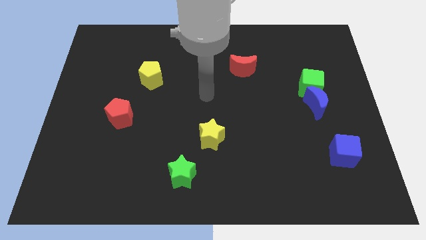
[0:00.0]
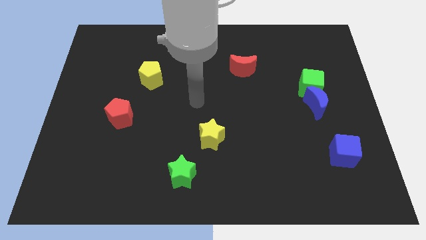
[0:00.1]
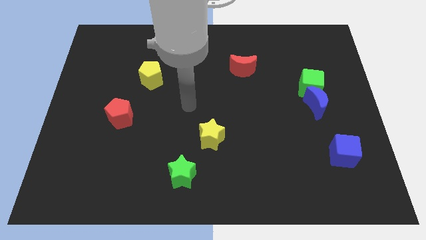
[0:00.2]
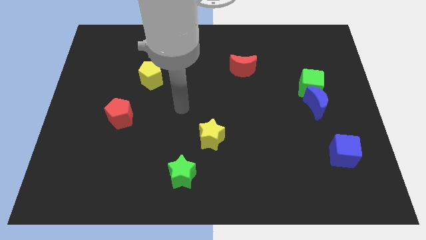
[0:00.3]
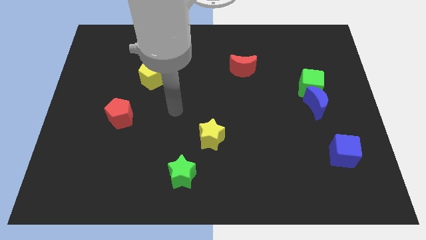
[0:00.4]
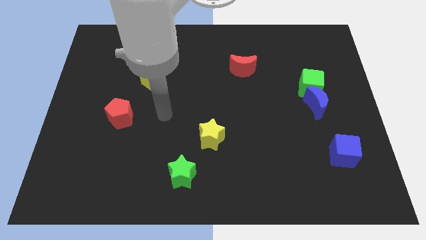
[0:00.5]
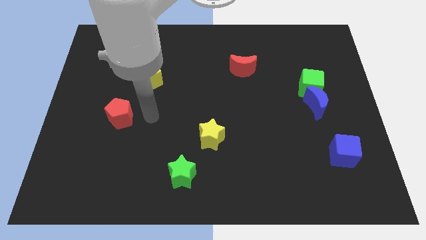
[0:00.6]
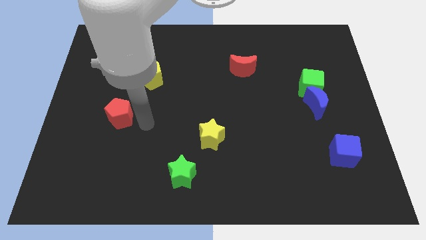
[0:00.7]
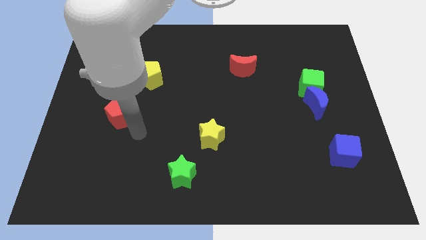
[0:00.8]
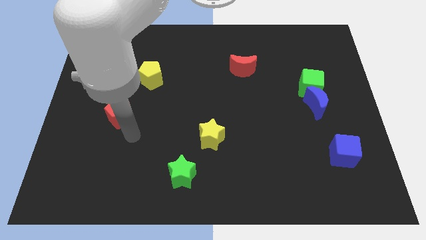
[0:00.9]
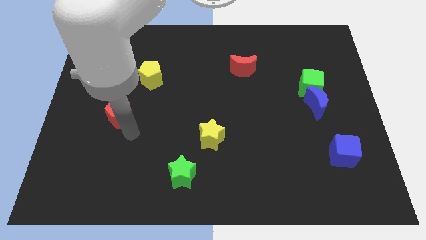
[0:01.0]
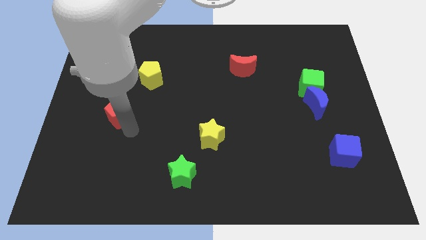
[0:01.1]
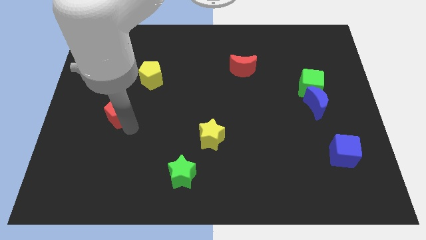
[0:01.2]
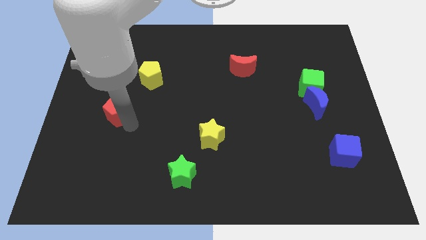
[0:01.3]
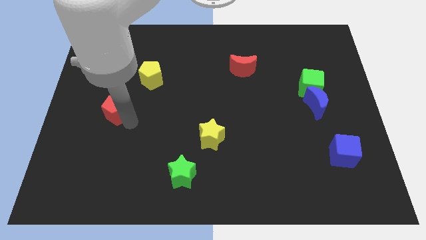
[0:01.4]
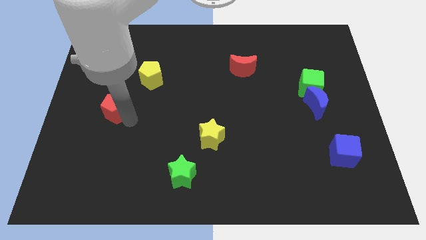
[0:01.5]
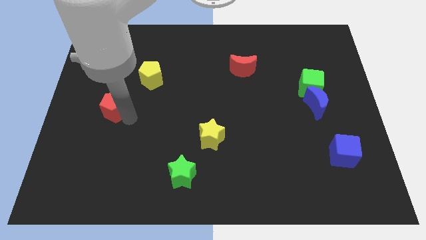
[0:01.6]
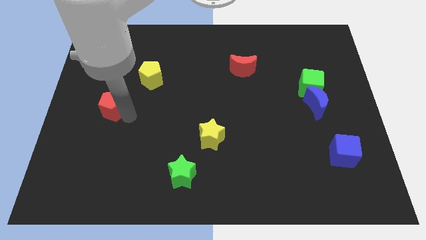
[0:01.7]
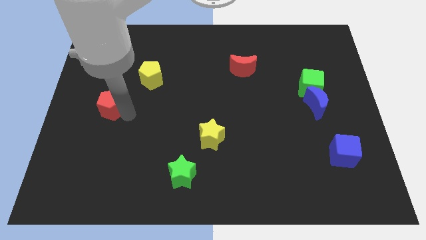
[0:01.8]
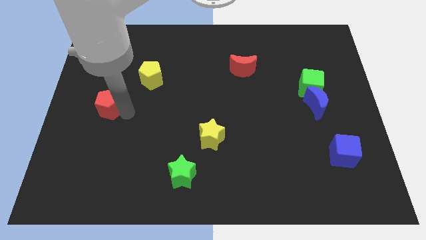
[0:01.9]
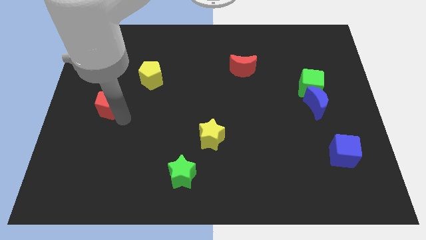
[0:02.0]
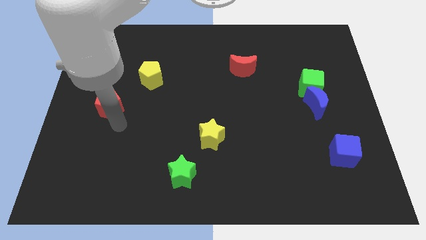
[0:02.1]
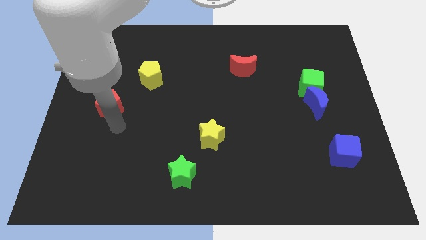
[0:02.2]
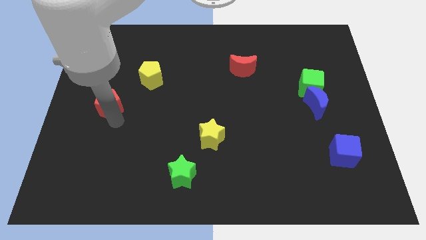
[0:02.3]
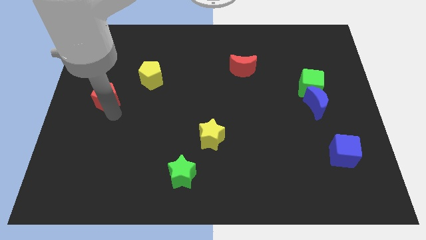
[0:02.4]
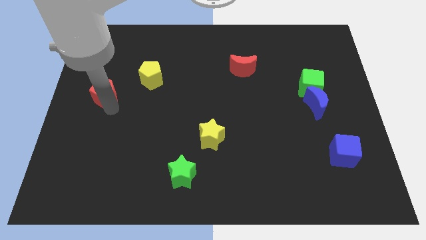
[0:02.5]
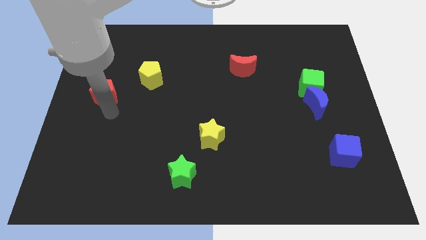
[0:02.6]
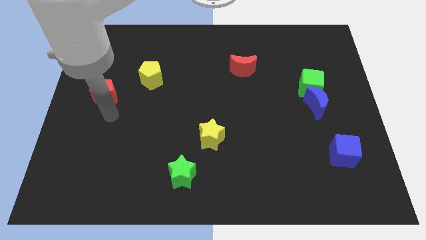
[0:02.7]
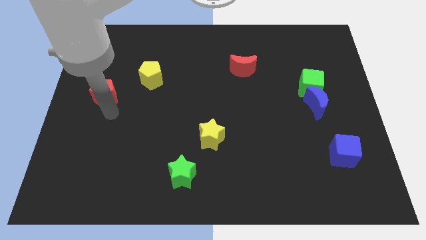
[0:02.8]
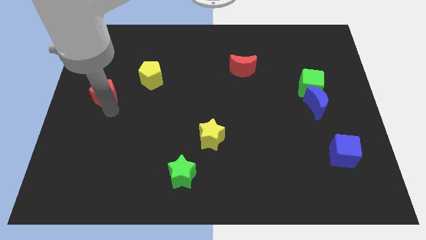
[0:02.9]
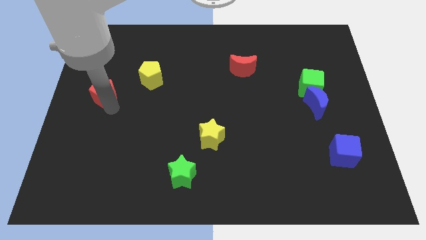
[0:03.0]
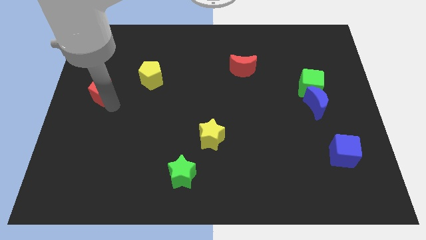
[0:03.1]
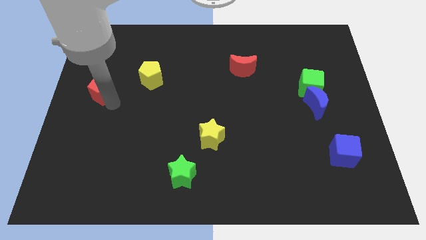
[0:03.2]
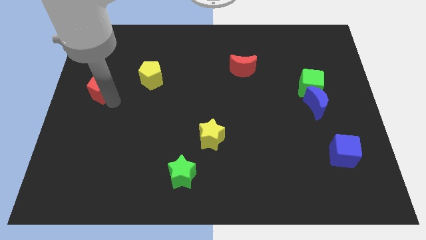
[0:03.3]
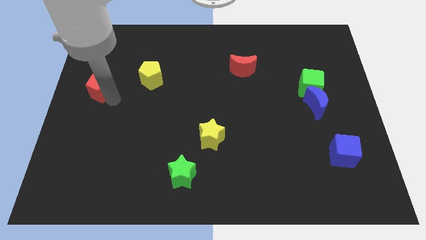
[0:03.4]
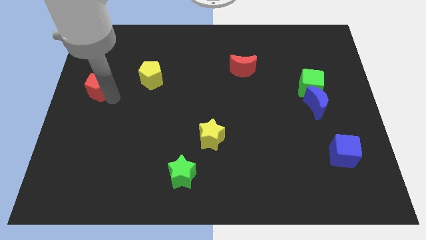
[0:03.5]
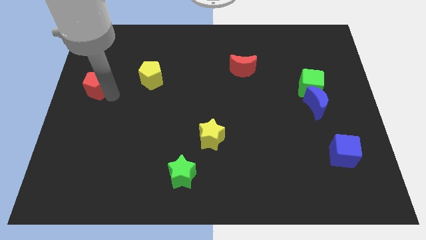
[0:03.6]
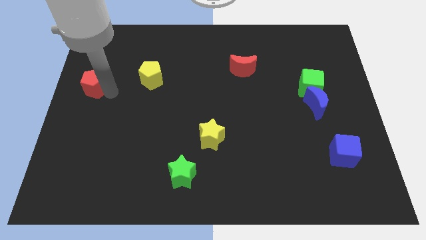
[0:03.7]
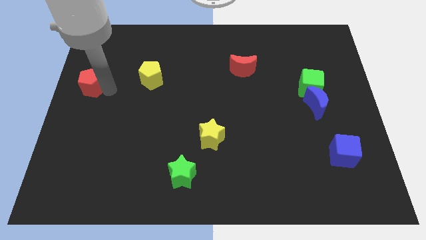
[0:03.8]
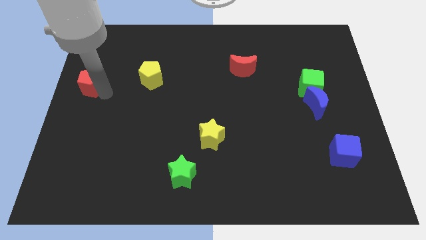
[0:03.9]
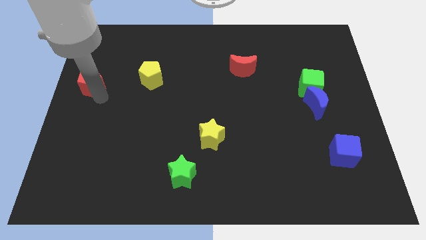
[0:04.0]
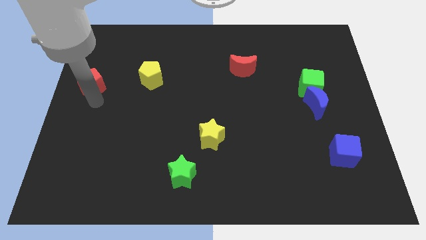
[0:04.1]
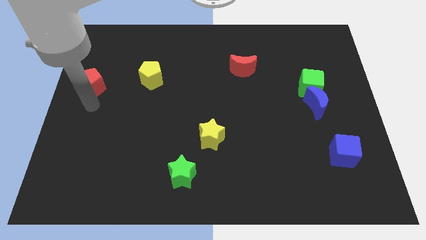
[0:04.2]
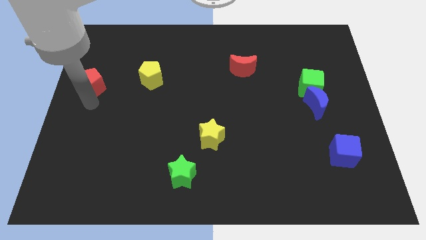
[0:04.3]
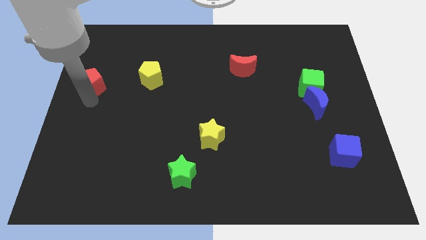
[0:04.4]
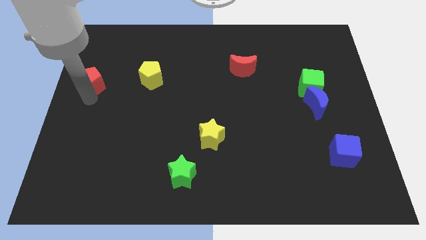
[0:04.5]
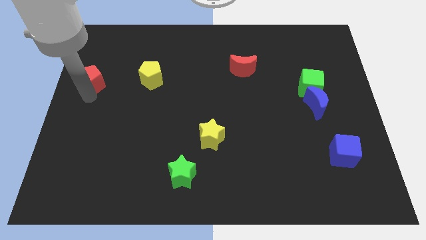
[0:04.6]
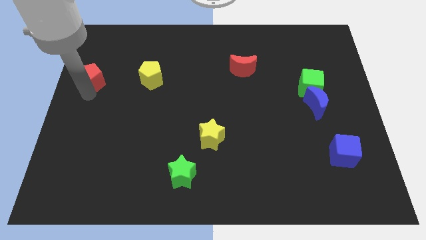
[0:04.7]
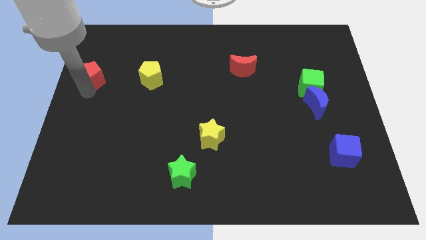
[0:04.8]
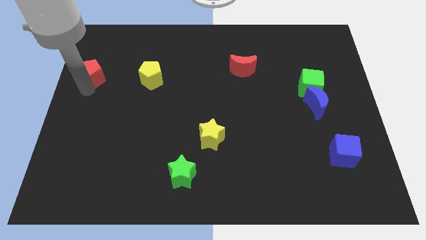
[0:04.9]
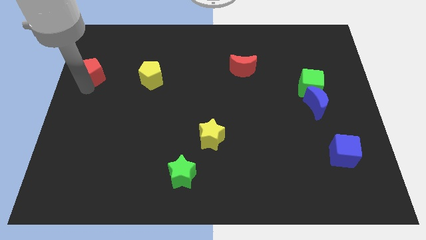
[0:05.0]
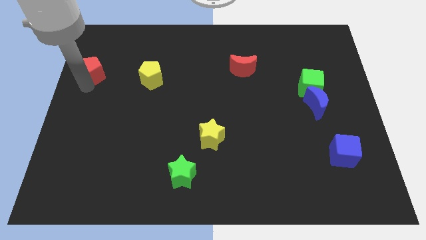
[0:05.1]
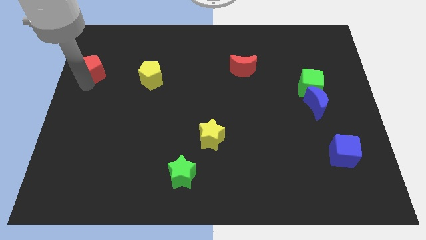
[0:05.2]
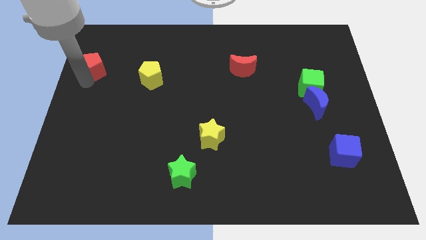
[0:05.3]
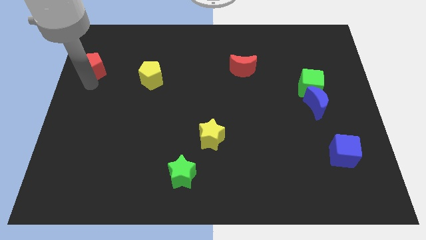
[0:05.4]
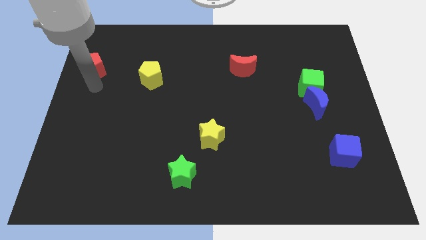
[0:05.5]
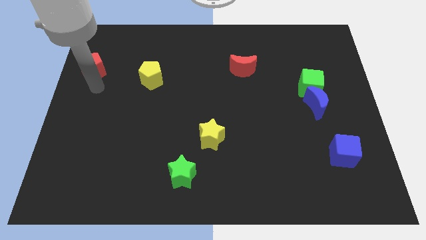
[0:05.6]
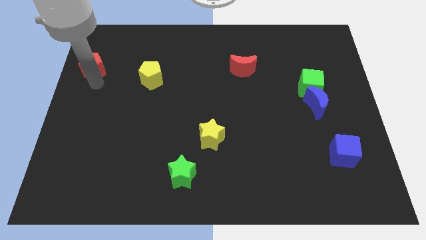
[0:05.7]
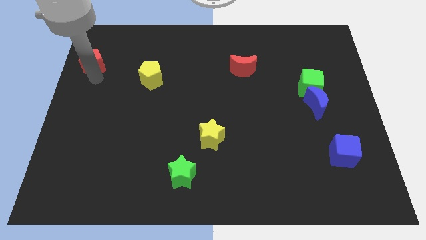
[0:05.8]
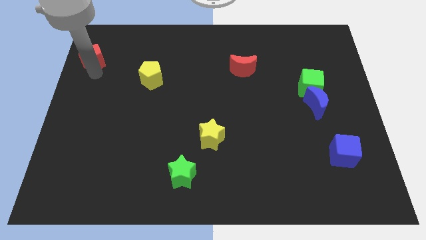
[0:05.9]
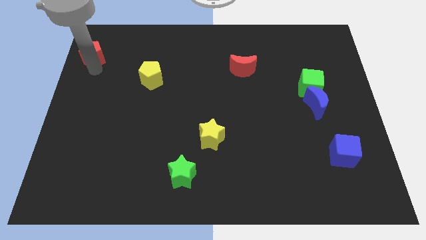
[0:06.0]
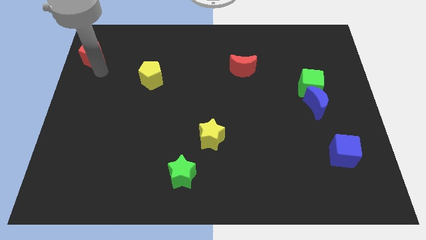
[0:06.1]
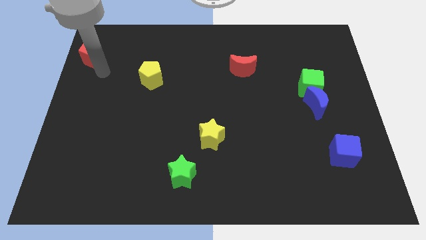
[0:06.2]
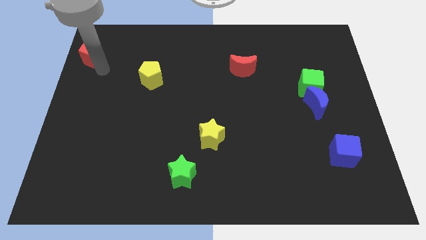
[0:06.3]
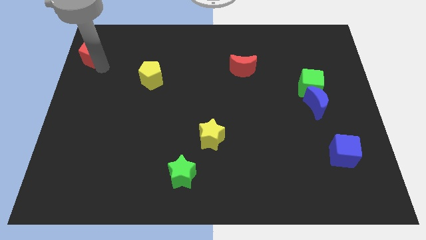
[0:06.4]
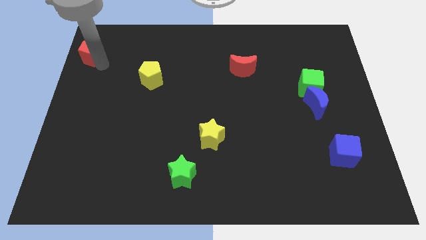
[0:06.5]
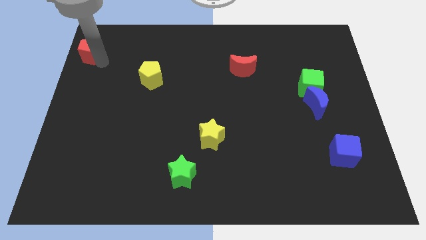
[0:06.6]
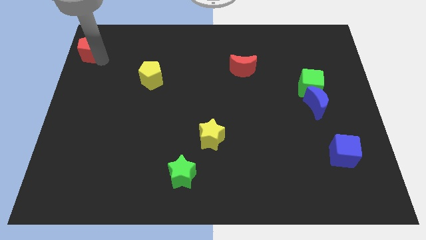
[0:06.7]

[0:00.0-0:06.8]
put the red pentagon to the top left of the board
